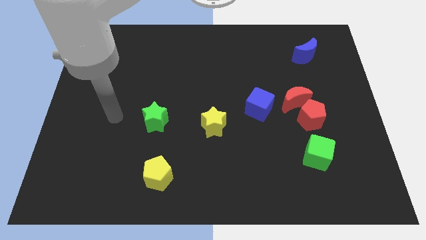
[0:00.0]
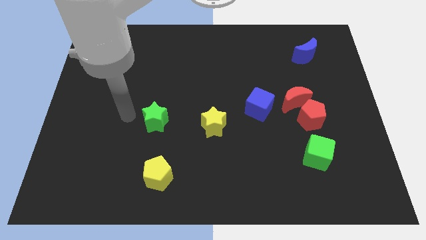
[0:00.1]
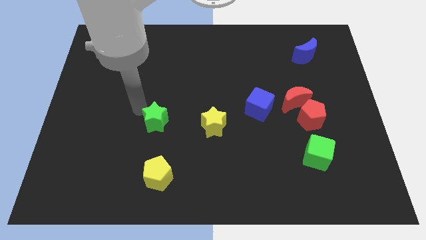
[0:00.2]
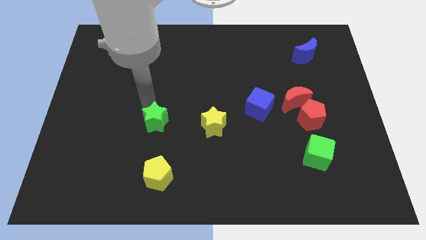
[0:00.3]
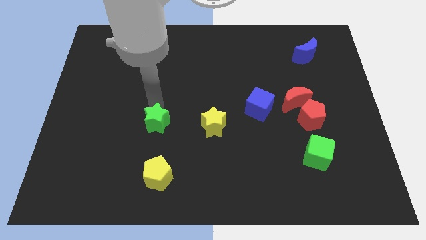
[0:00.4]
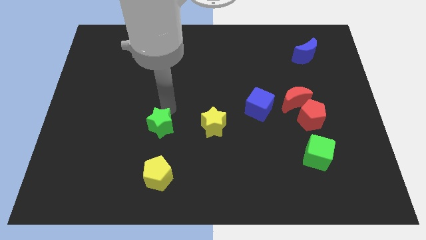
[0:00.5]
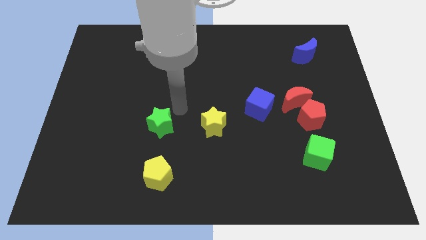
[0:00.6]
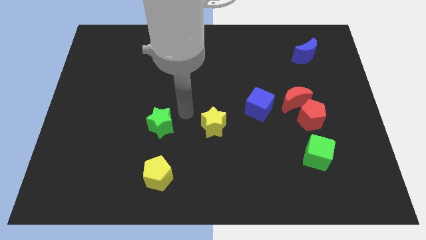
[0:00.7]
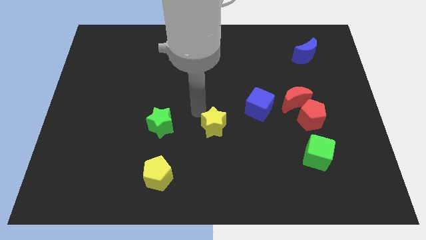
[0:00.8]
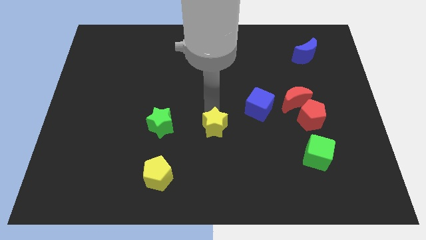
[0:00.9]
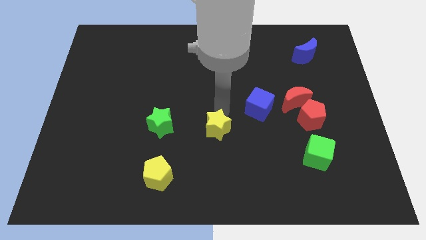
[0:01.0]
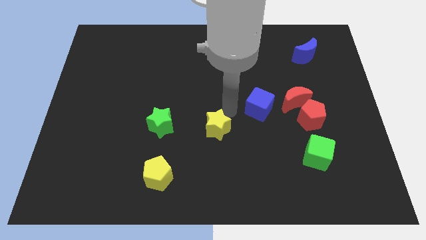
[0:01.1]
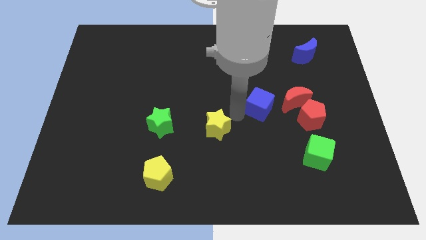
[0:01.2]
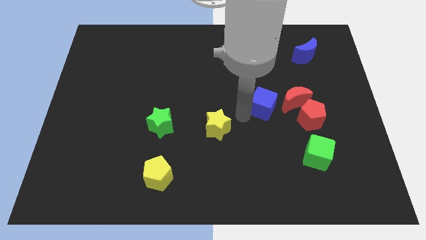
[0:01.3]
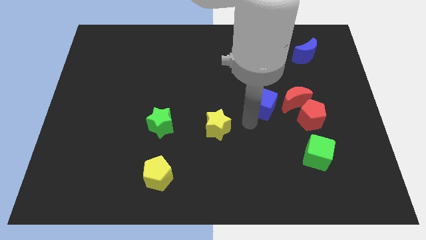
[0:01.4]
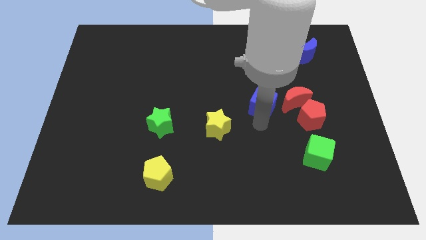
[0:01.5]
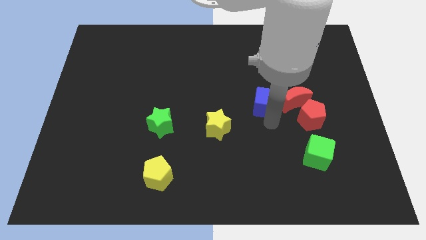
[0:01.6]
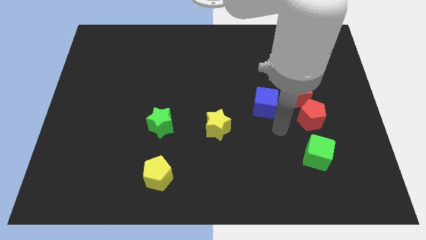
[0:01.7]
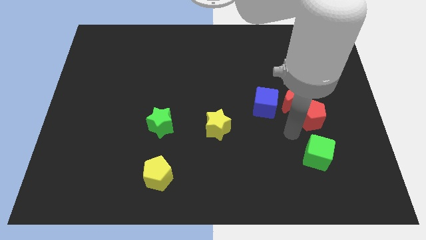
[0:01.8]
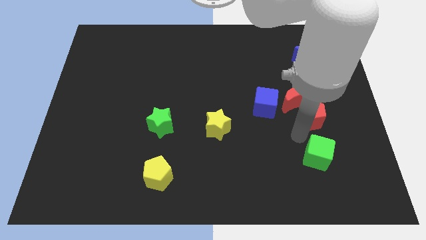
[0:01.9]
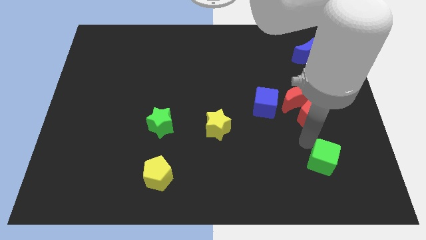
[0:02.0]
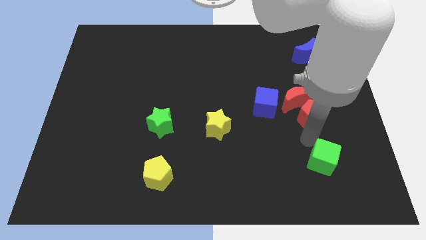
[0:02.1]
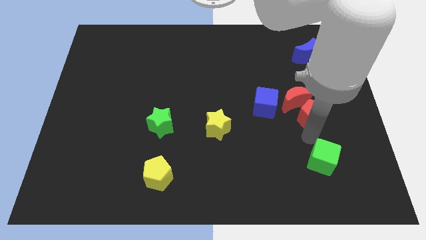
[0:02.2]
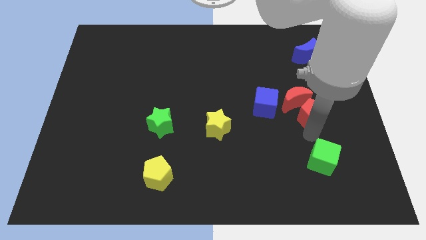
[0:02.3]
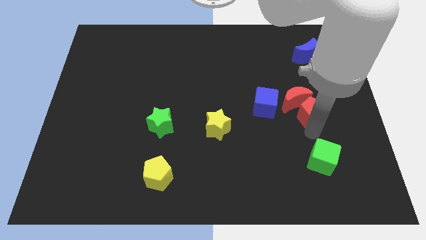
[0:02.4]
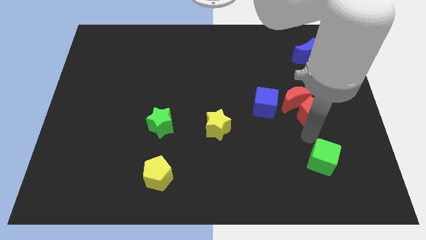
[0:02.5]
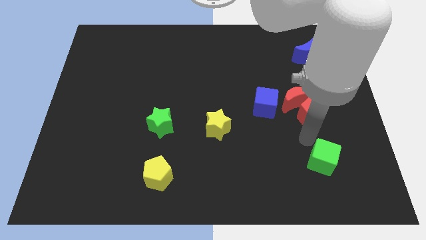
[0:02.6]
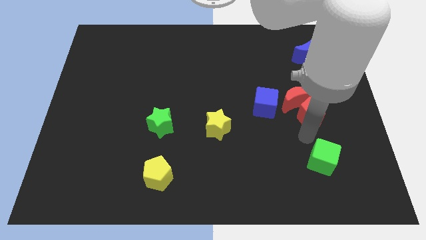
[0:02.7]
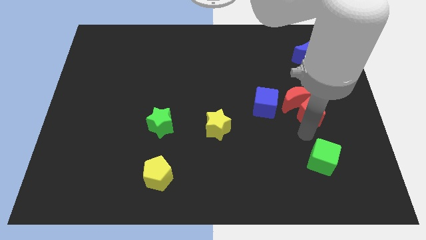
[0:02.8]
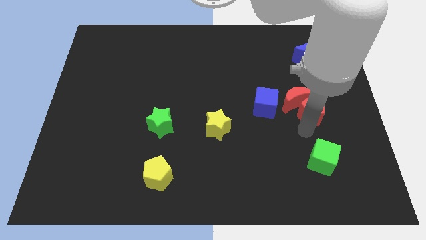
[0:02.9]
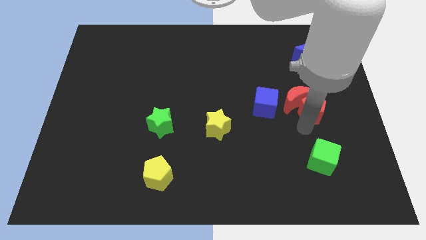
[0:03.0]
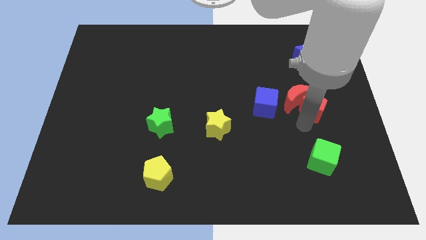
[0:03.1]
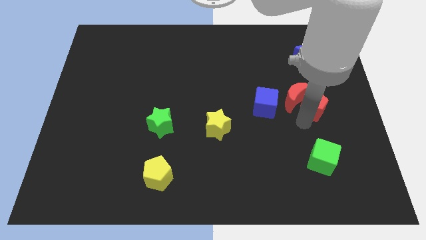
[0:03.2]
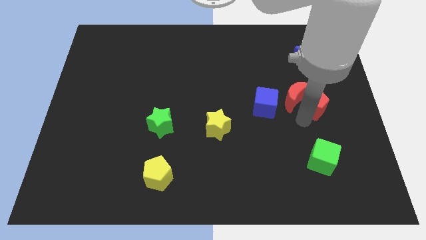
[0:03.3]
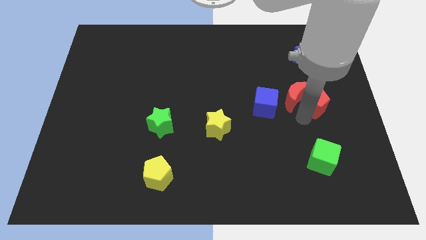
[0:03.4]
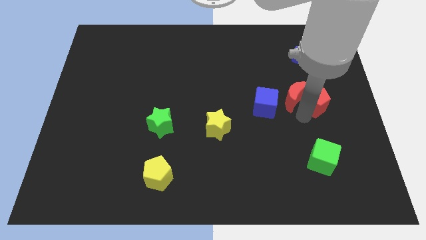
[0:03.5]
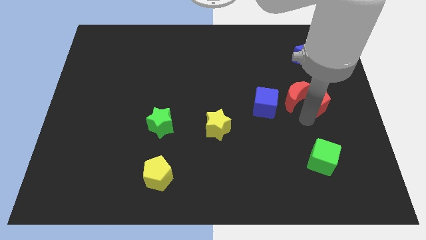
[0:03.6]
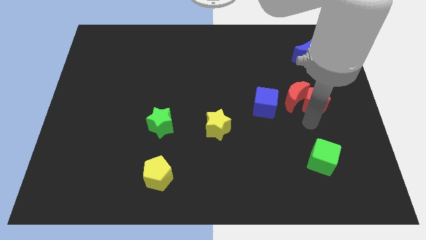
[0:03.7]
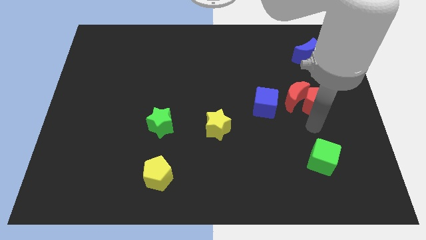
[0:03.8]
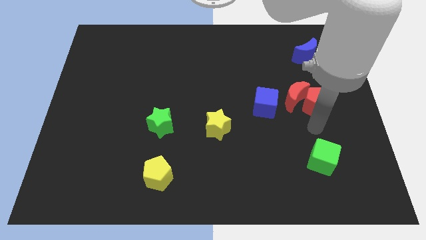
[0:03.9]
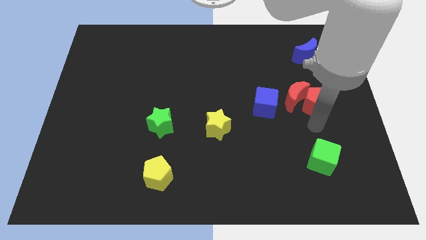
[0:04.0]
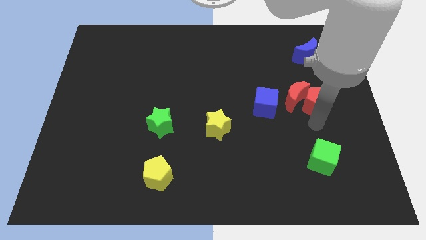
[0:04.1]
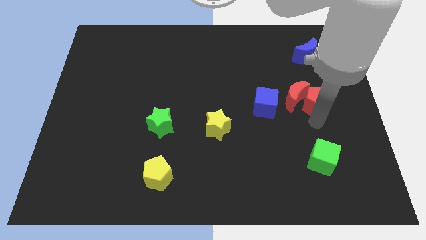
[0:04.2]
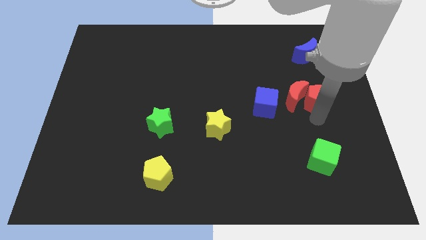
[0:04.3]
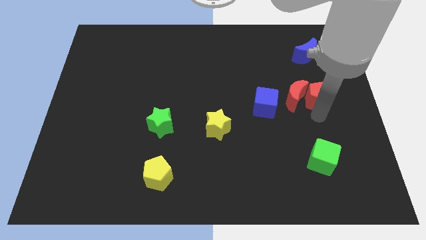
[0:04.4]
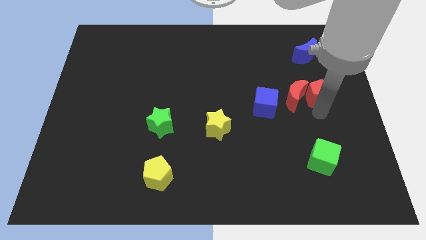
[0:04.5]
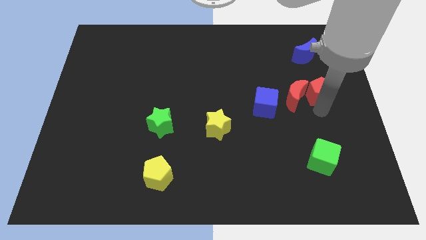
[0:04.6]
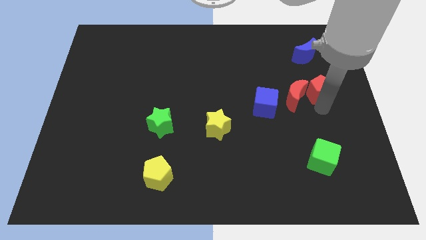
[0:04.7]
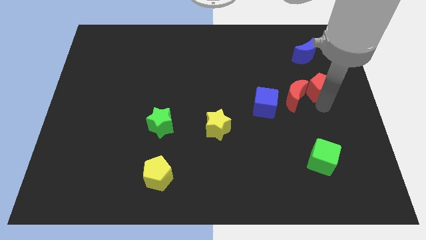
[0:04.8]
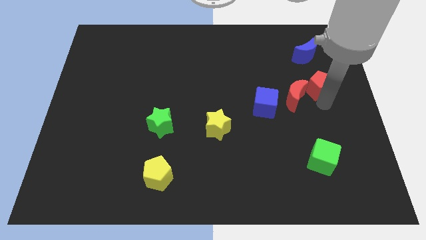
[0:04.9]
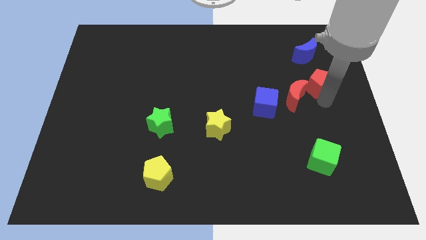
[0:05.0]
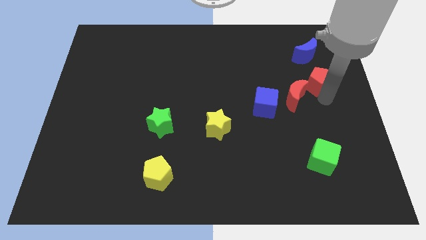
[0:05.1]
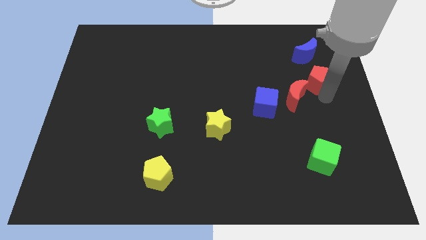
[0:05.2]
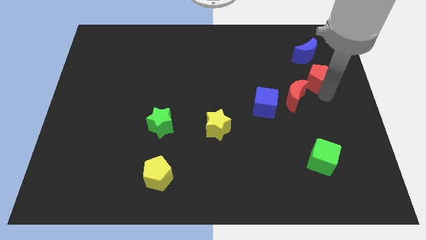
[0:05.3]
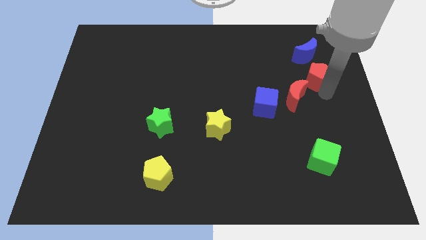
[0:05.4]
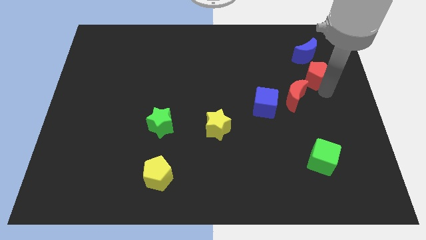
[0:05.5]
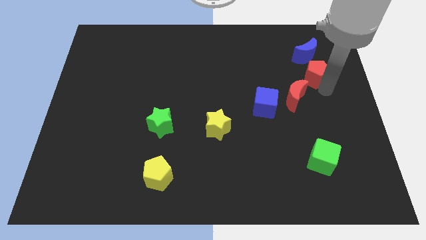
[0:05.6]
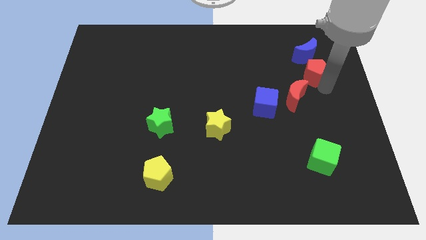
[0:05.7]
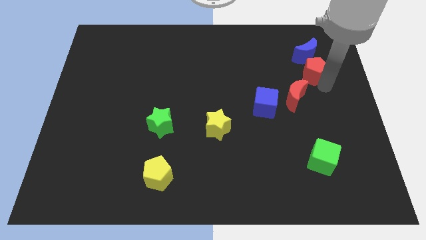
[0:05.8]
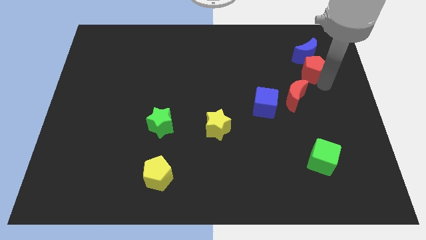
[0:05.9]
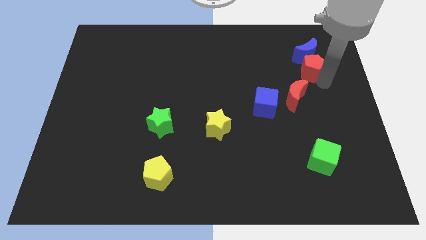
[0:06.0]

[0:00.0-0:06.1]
move the red pentagon next to the blue moon
